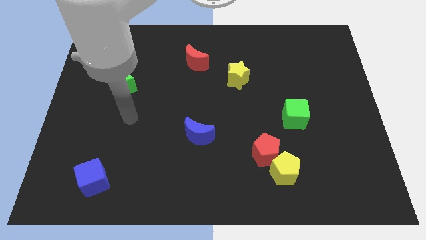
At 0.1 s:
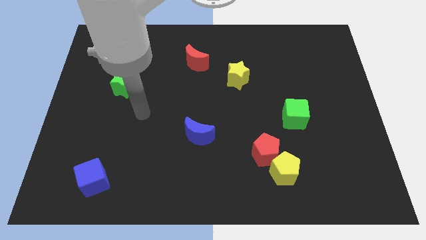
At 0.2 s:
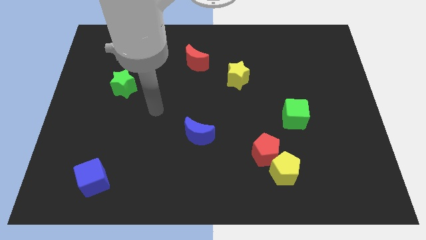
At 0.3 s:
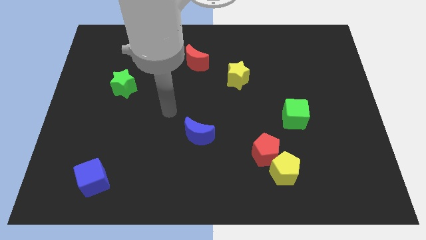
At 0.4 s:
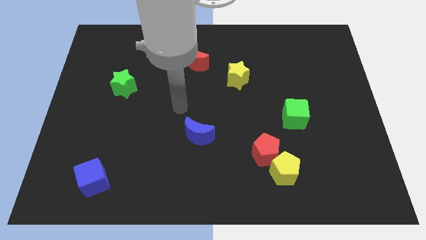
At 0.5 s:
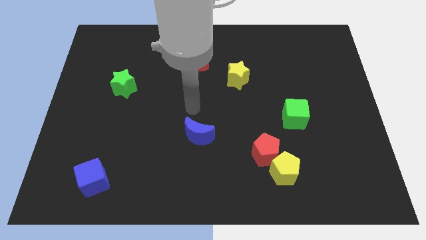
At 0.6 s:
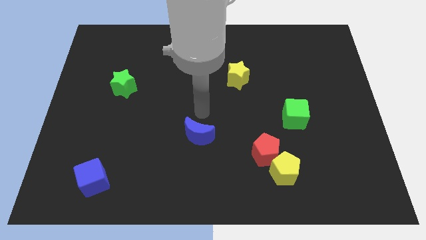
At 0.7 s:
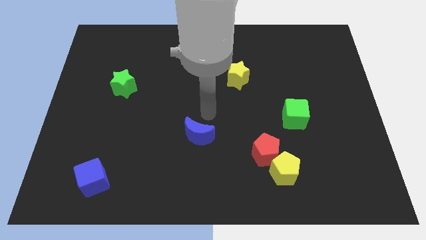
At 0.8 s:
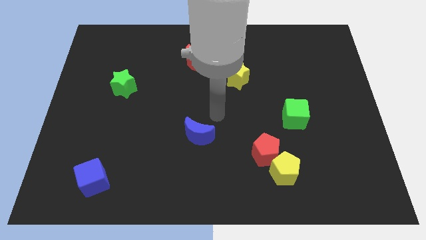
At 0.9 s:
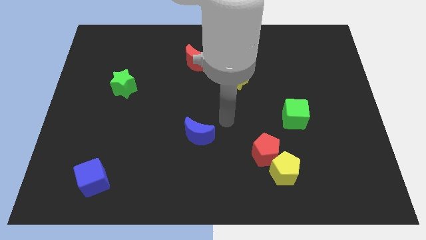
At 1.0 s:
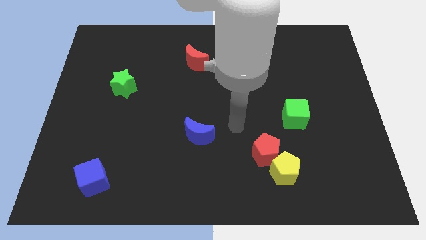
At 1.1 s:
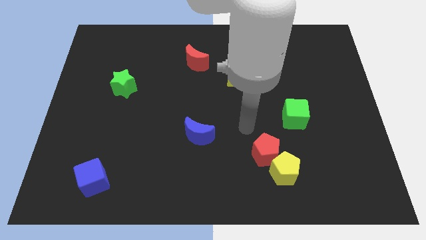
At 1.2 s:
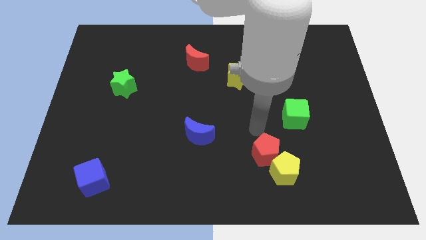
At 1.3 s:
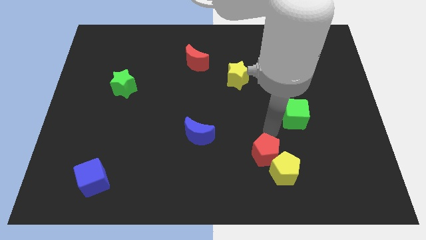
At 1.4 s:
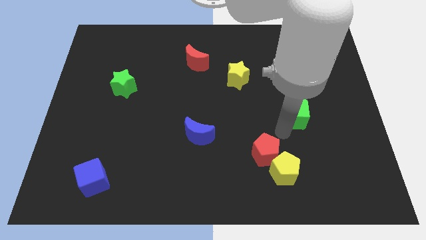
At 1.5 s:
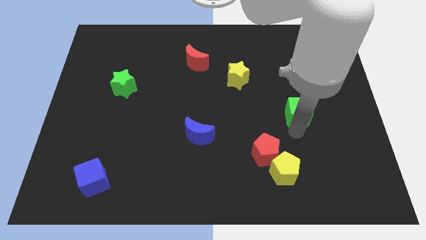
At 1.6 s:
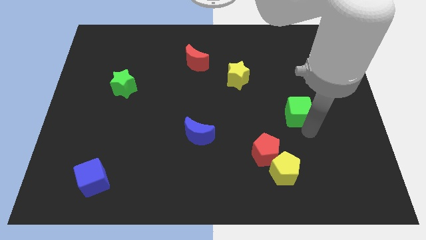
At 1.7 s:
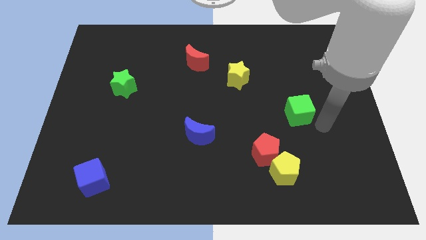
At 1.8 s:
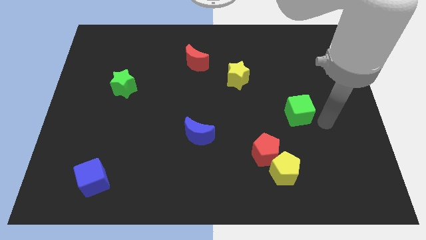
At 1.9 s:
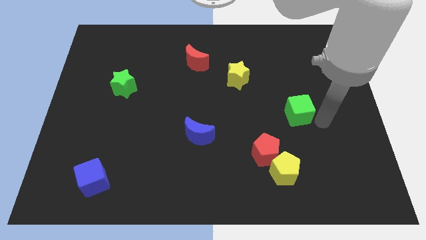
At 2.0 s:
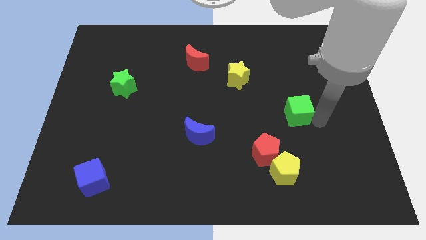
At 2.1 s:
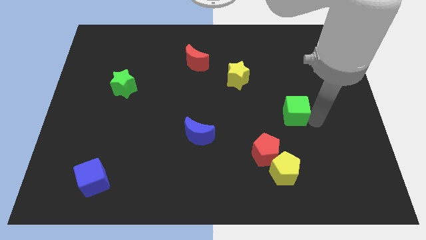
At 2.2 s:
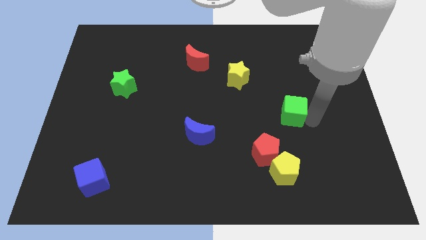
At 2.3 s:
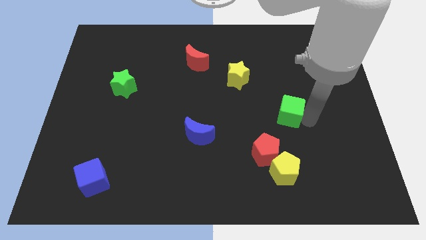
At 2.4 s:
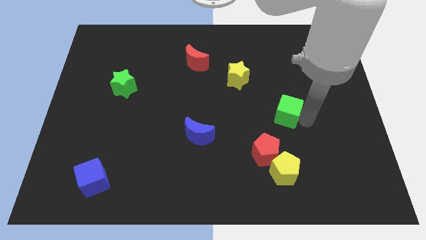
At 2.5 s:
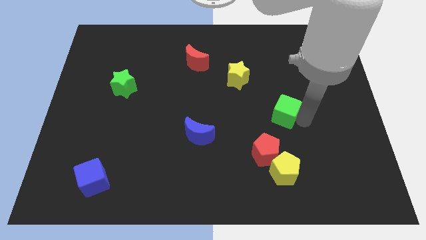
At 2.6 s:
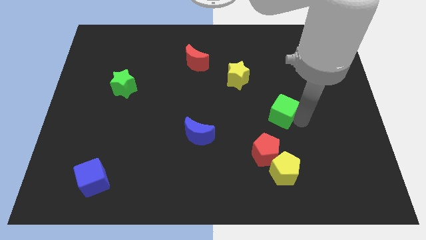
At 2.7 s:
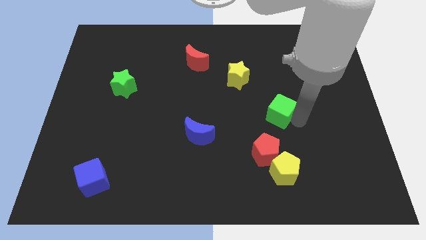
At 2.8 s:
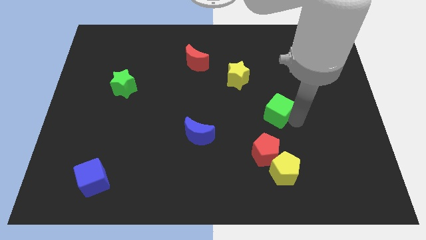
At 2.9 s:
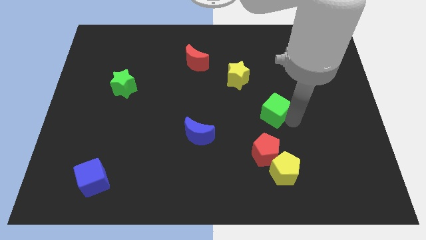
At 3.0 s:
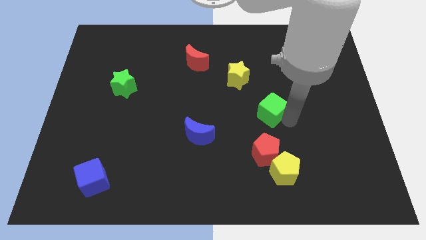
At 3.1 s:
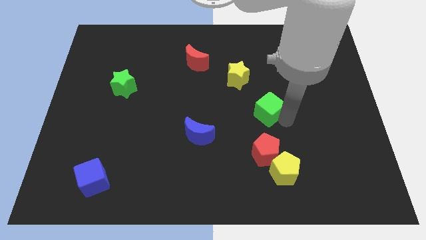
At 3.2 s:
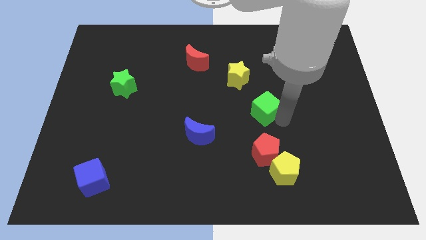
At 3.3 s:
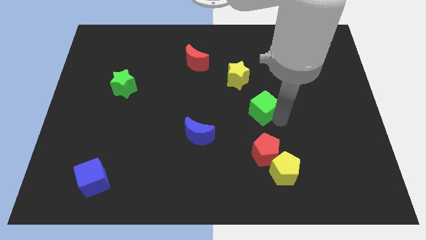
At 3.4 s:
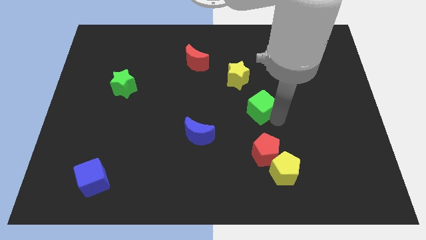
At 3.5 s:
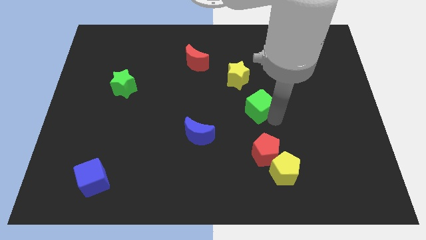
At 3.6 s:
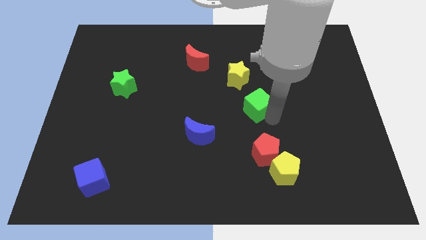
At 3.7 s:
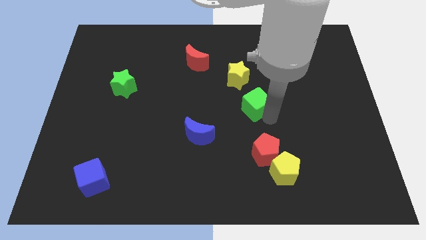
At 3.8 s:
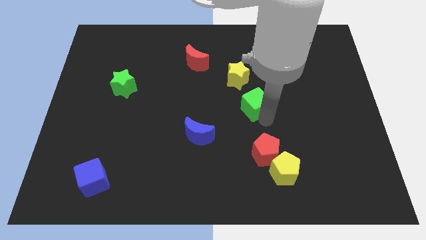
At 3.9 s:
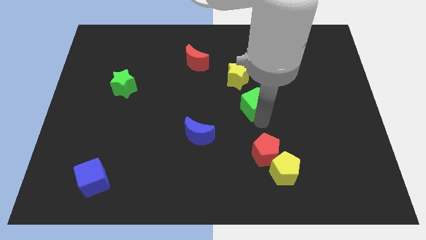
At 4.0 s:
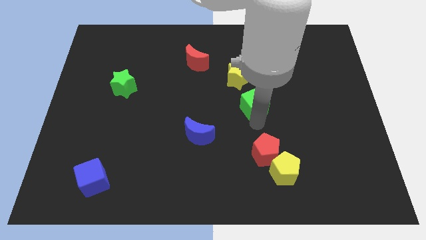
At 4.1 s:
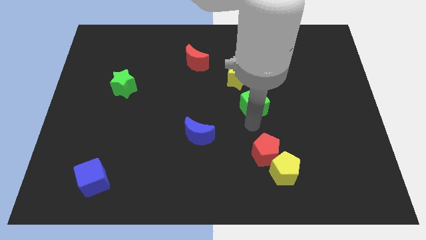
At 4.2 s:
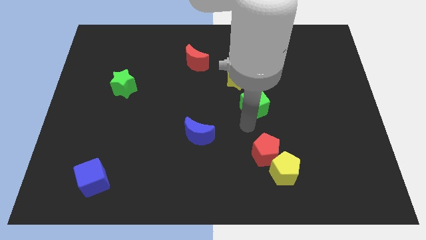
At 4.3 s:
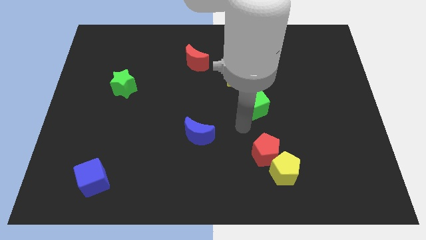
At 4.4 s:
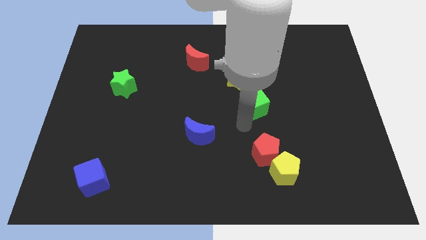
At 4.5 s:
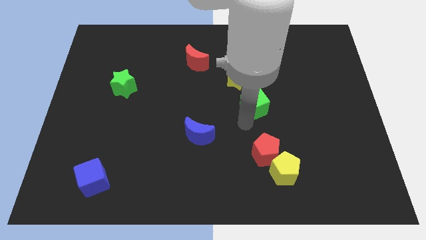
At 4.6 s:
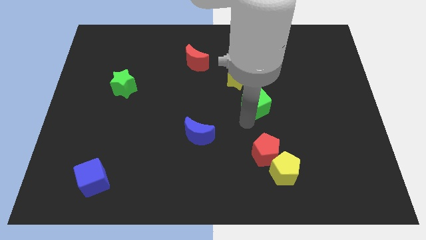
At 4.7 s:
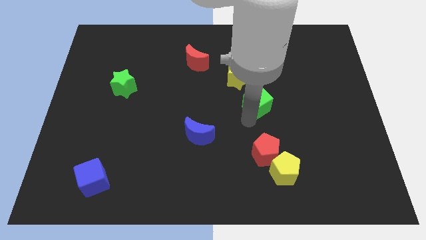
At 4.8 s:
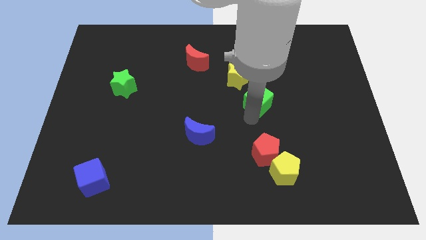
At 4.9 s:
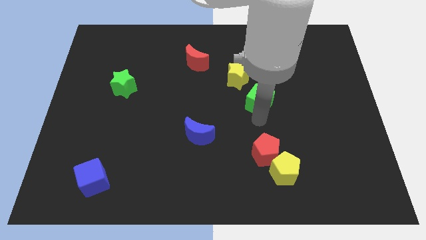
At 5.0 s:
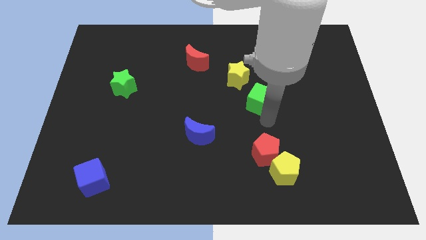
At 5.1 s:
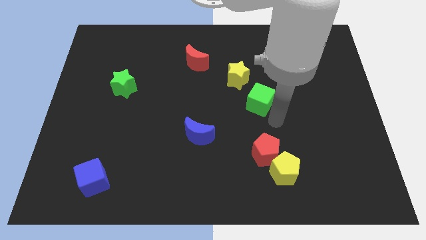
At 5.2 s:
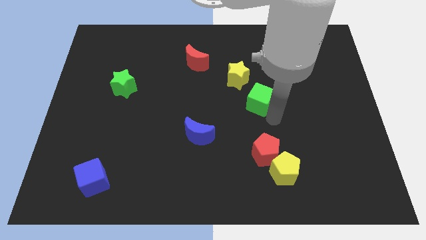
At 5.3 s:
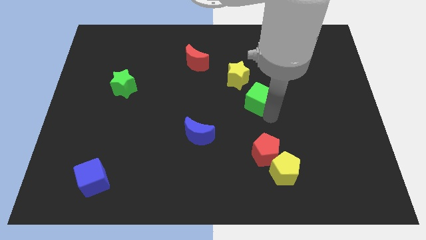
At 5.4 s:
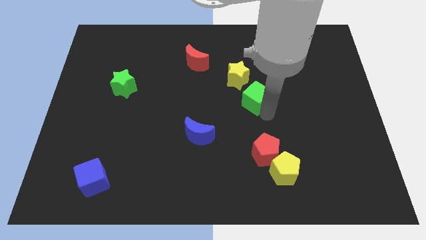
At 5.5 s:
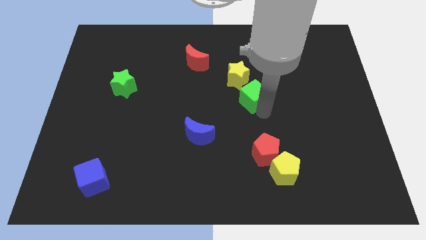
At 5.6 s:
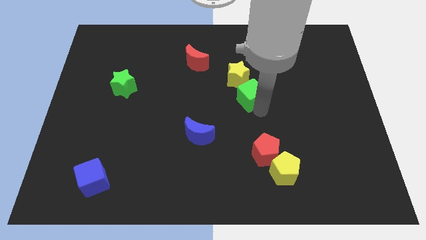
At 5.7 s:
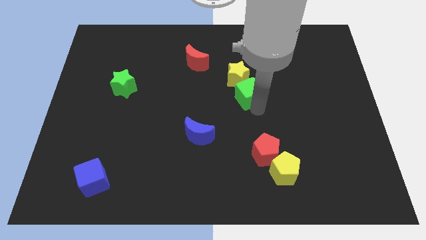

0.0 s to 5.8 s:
put the green cube towards the yellow star

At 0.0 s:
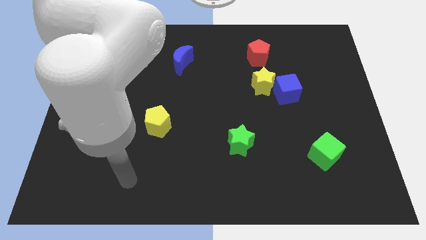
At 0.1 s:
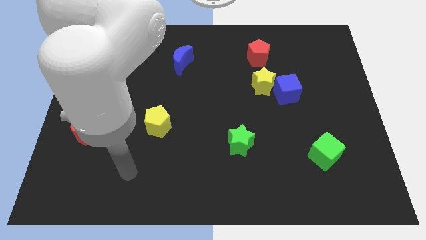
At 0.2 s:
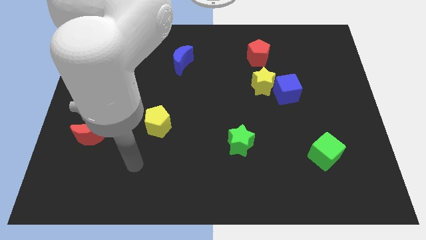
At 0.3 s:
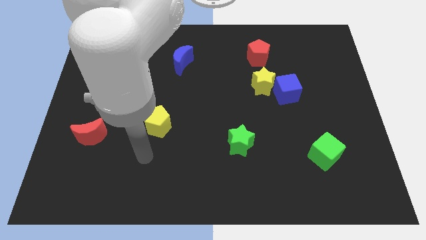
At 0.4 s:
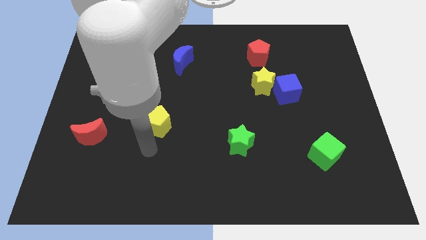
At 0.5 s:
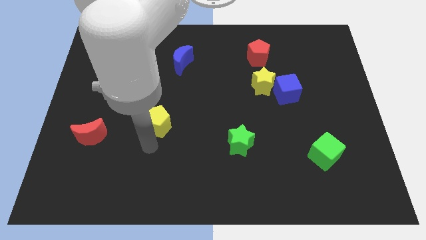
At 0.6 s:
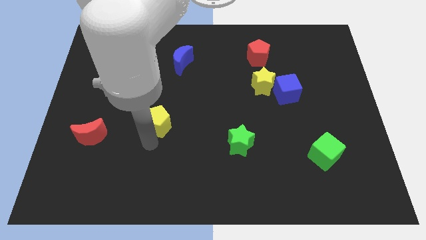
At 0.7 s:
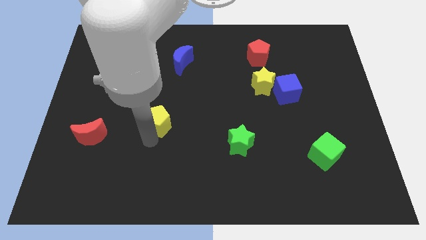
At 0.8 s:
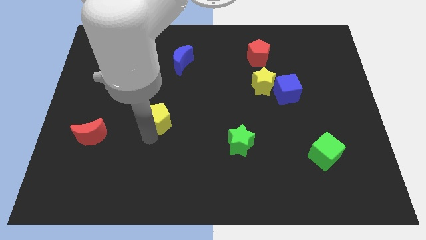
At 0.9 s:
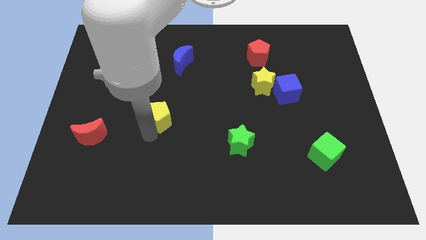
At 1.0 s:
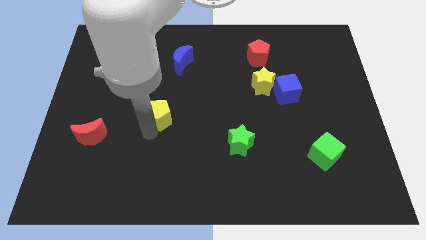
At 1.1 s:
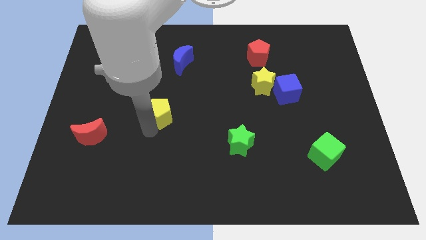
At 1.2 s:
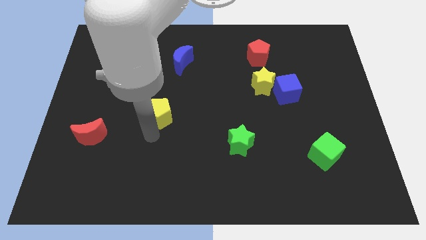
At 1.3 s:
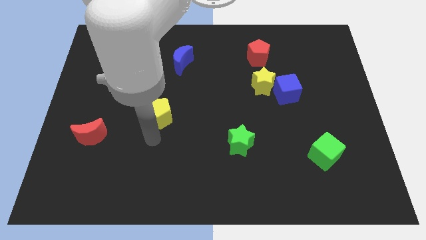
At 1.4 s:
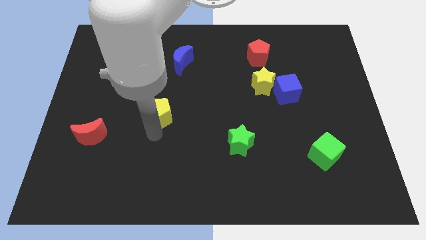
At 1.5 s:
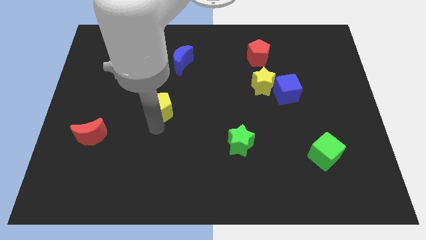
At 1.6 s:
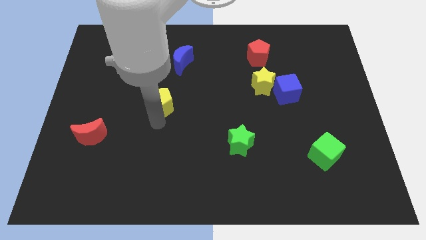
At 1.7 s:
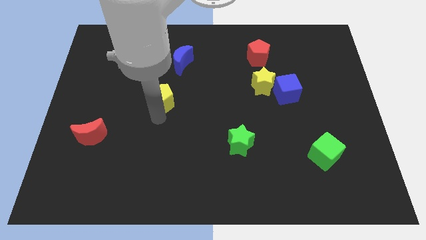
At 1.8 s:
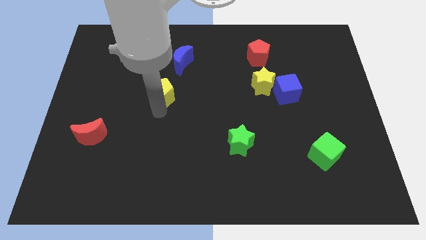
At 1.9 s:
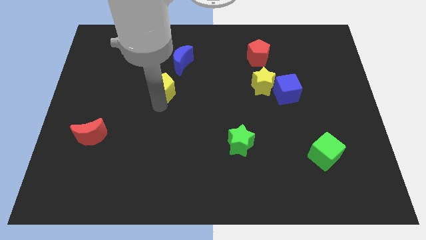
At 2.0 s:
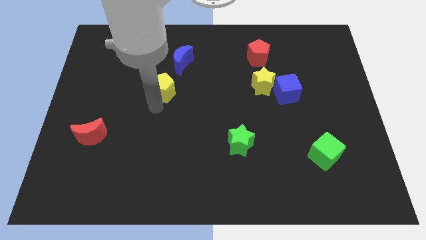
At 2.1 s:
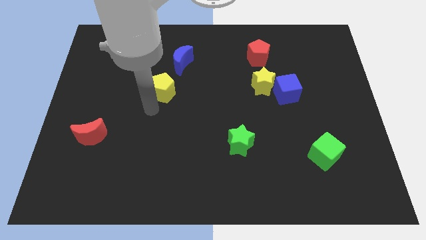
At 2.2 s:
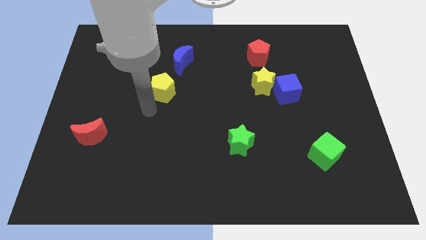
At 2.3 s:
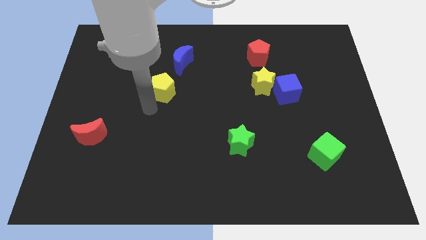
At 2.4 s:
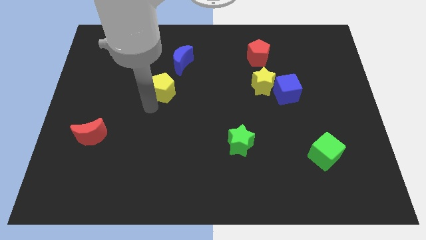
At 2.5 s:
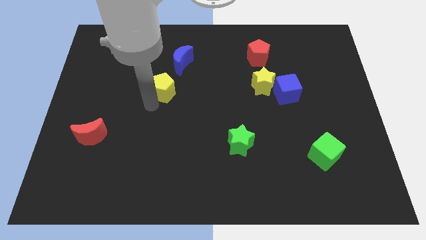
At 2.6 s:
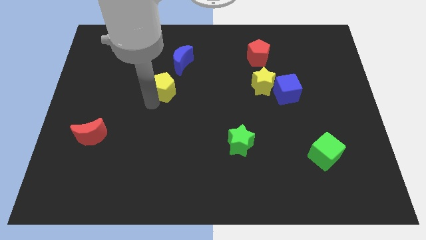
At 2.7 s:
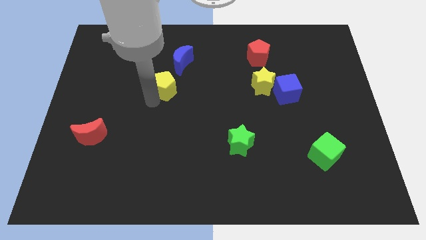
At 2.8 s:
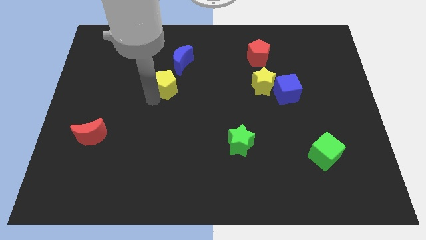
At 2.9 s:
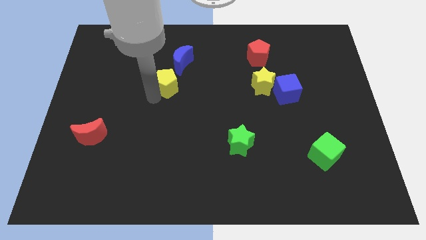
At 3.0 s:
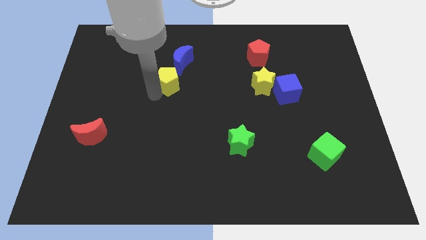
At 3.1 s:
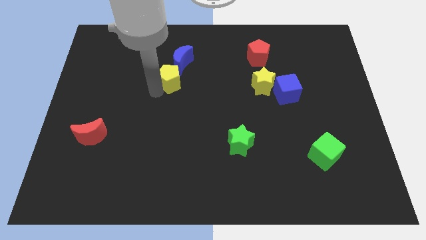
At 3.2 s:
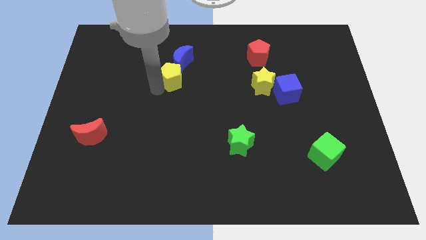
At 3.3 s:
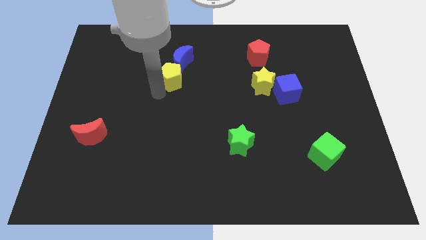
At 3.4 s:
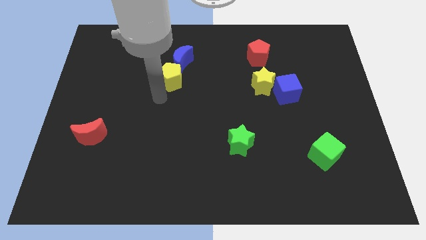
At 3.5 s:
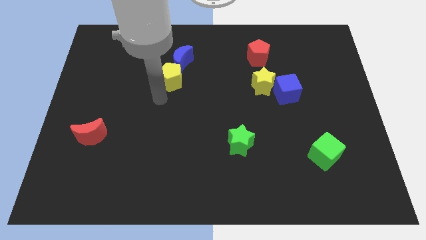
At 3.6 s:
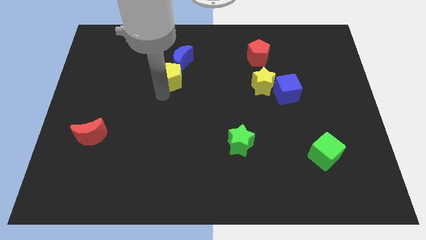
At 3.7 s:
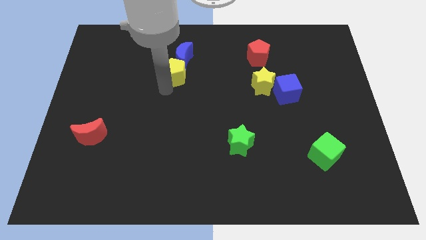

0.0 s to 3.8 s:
put the yellow pentagon next to the blue moon
